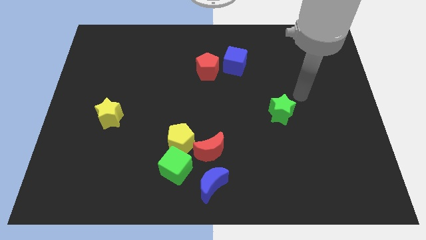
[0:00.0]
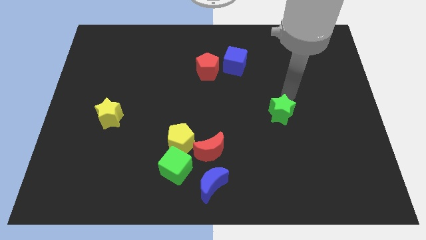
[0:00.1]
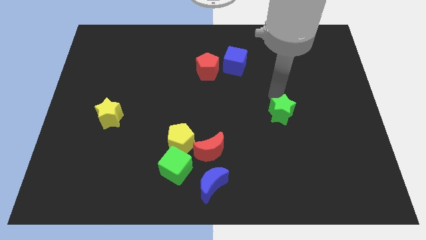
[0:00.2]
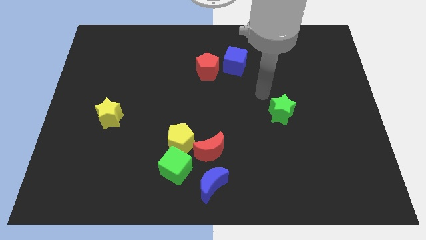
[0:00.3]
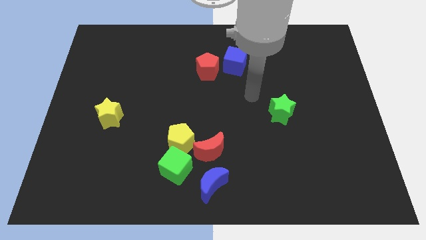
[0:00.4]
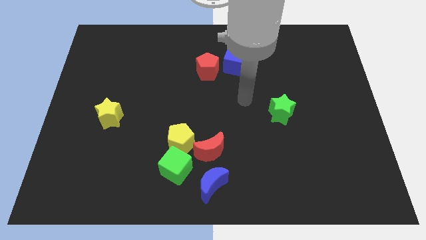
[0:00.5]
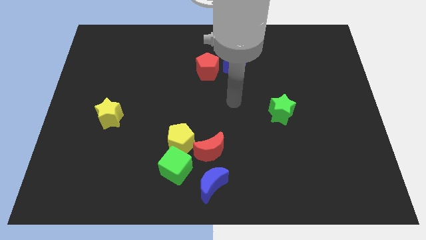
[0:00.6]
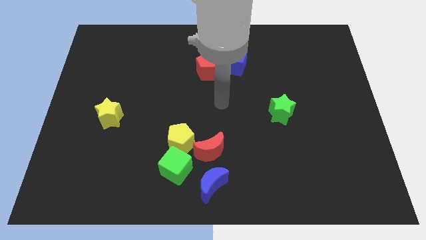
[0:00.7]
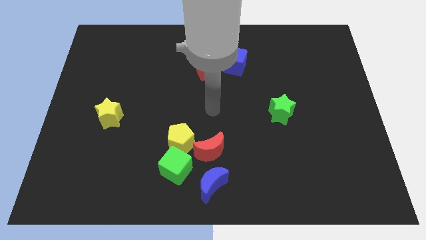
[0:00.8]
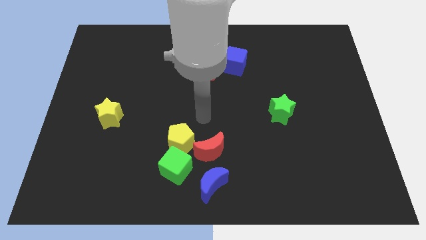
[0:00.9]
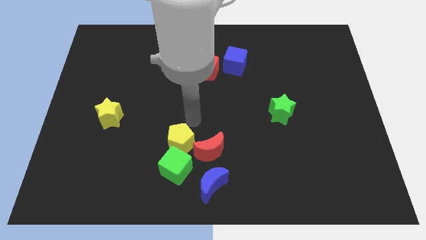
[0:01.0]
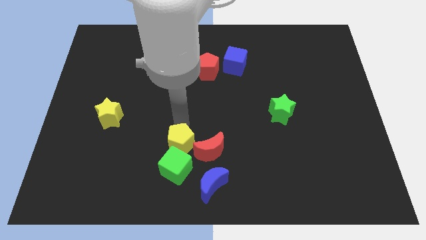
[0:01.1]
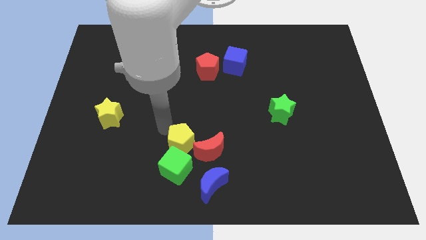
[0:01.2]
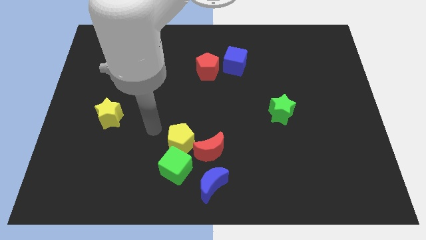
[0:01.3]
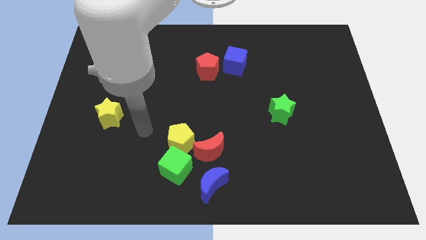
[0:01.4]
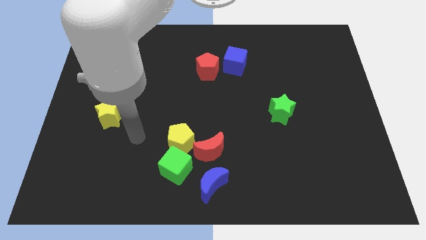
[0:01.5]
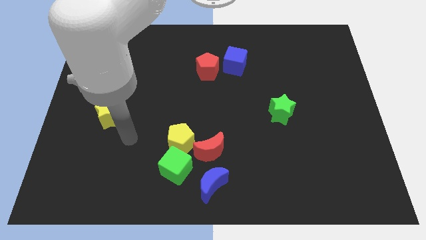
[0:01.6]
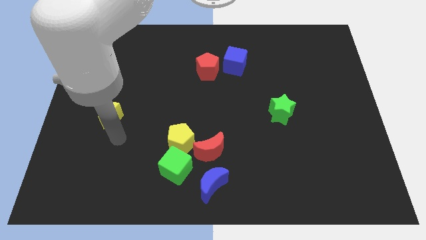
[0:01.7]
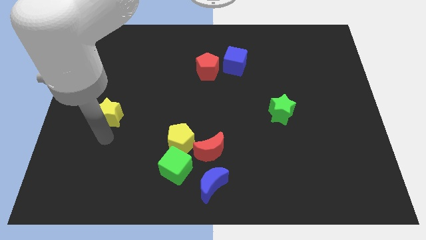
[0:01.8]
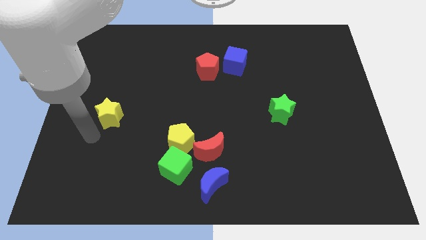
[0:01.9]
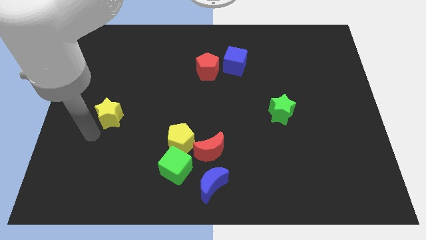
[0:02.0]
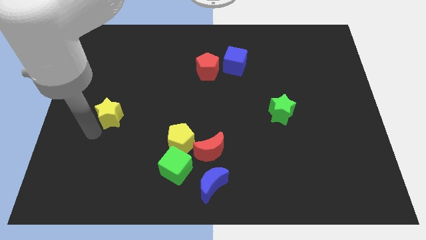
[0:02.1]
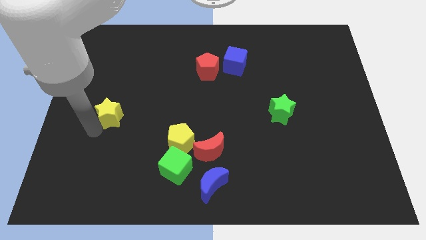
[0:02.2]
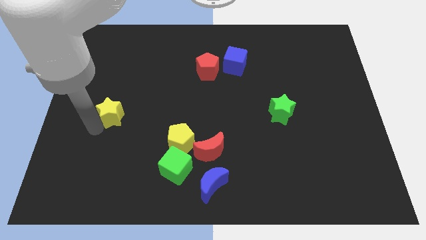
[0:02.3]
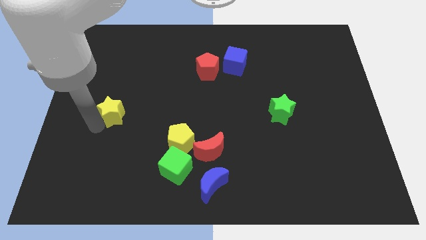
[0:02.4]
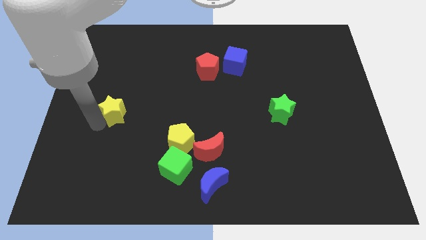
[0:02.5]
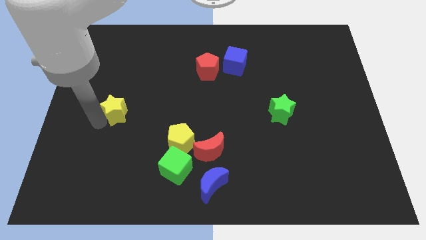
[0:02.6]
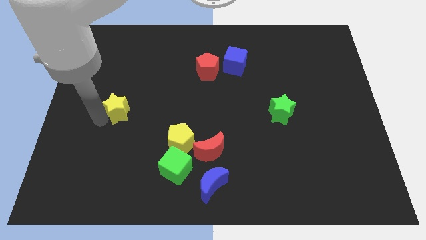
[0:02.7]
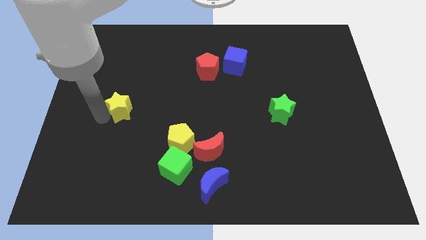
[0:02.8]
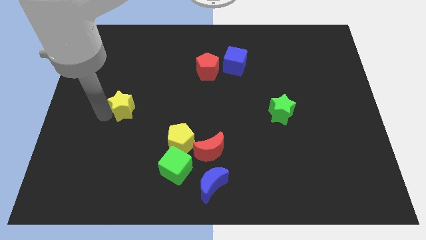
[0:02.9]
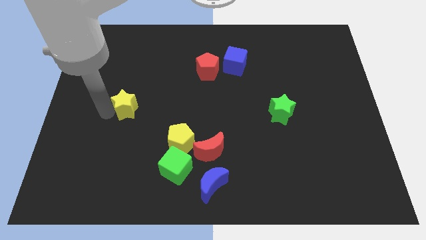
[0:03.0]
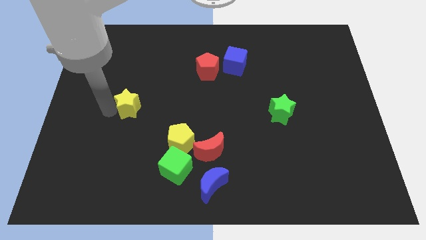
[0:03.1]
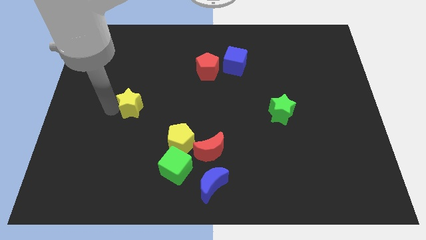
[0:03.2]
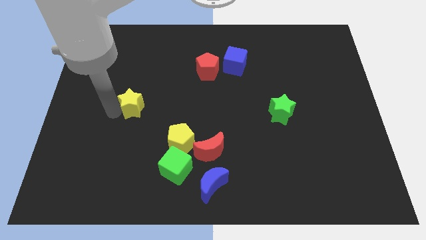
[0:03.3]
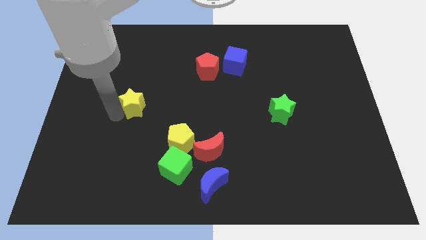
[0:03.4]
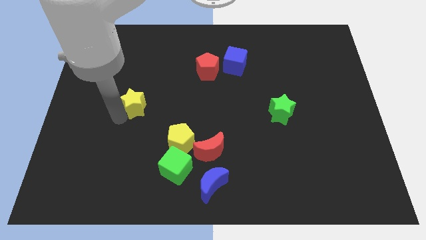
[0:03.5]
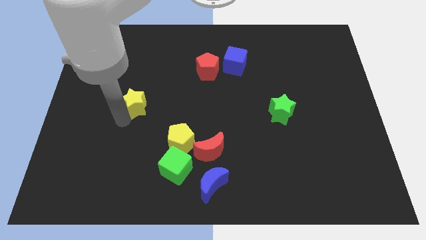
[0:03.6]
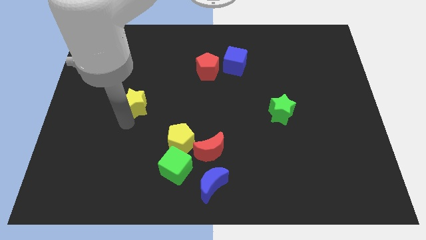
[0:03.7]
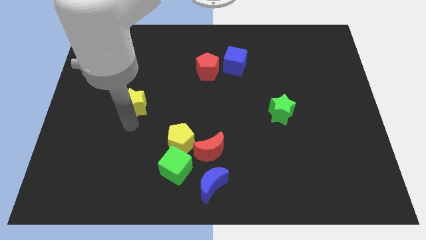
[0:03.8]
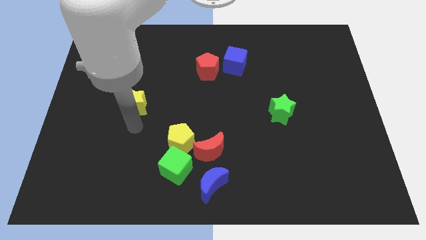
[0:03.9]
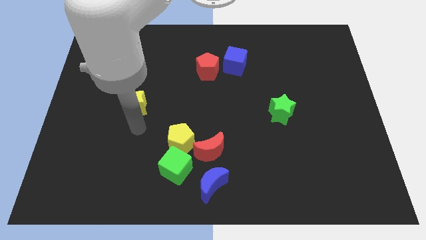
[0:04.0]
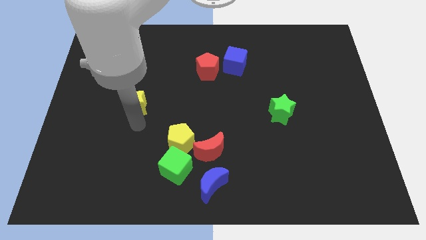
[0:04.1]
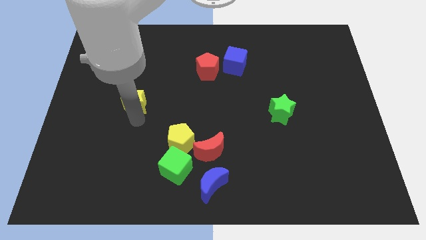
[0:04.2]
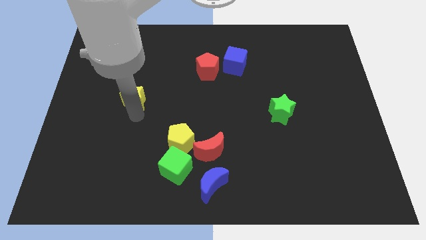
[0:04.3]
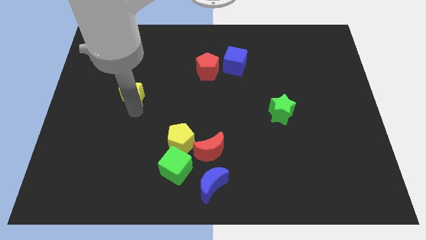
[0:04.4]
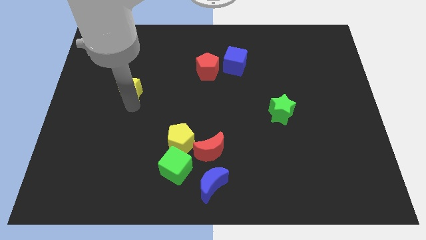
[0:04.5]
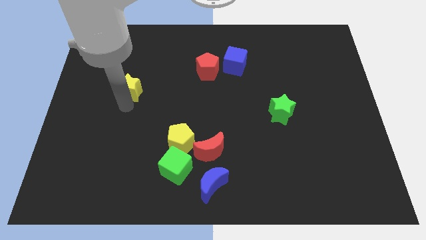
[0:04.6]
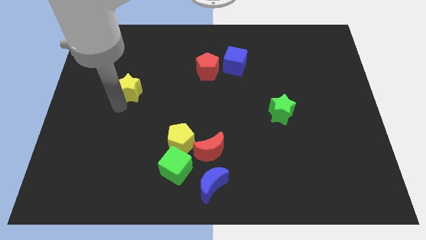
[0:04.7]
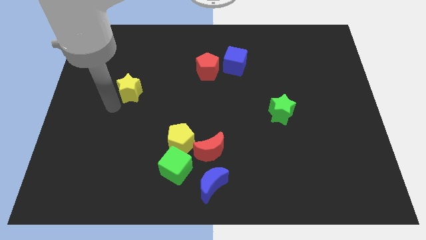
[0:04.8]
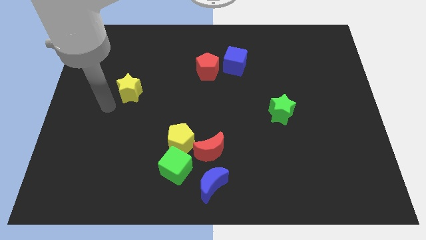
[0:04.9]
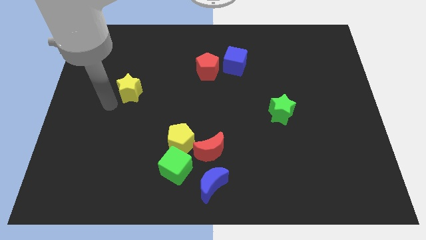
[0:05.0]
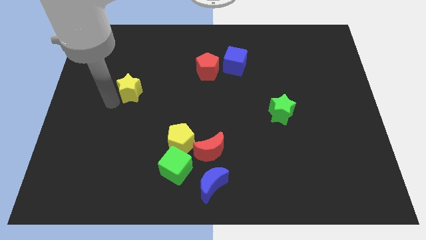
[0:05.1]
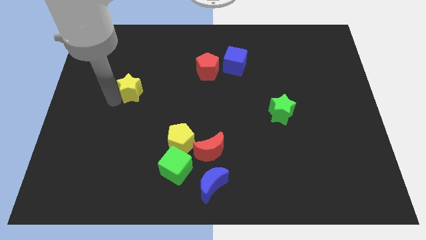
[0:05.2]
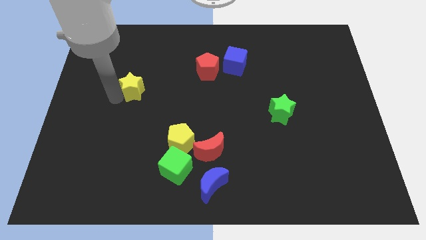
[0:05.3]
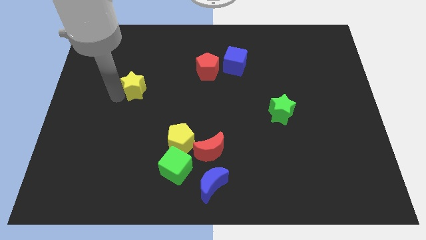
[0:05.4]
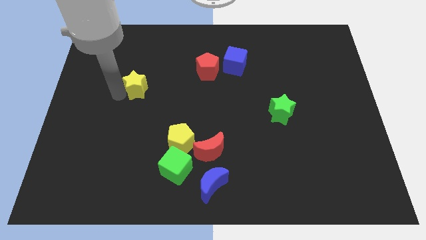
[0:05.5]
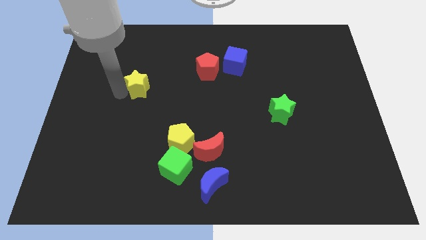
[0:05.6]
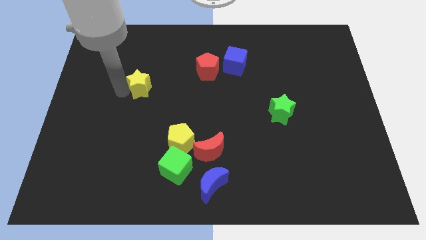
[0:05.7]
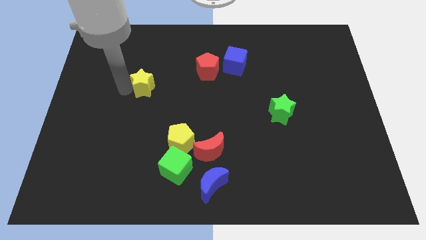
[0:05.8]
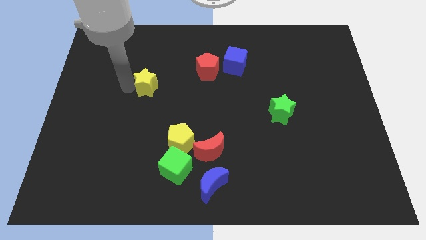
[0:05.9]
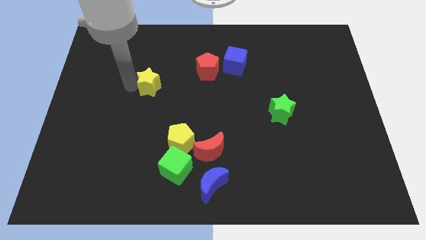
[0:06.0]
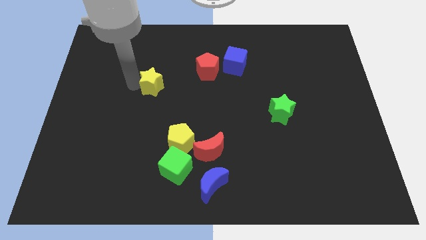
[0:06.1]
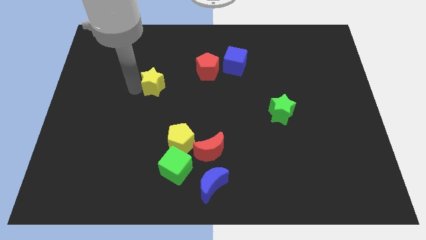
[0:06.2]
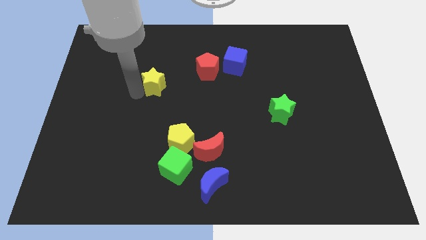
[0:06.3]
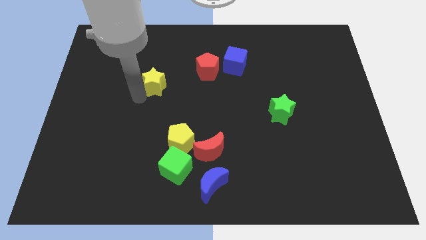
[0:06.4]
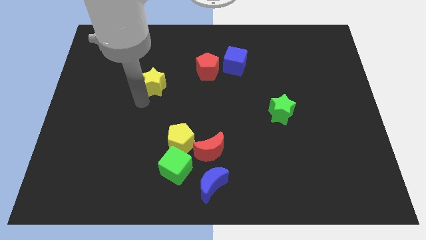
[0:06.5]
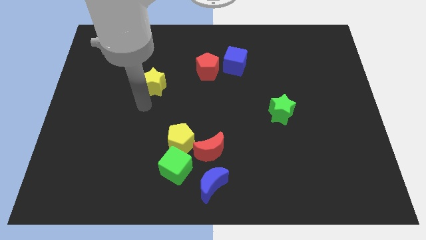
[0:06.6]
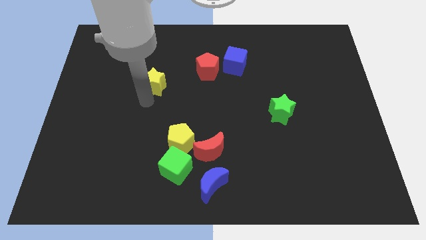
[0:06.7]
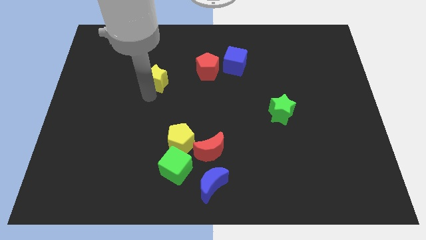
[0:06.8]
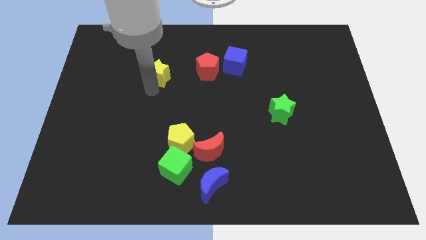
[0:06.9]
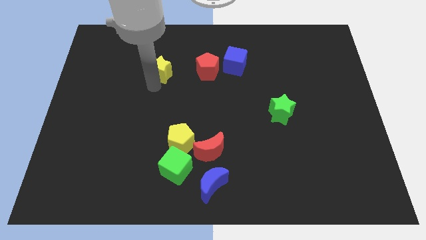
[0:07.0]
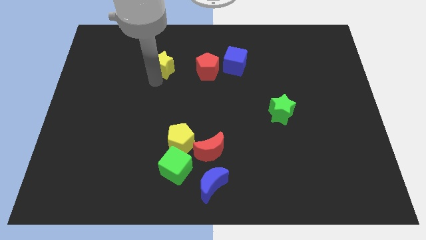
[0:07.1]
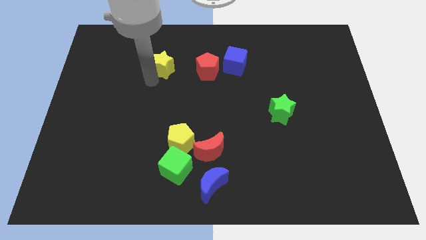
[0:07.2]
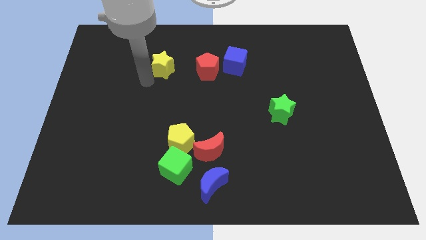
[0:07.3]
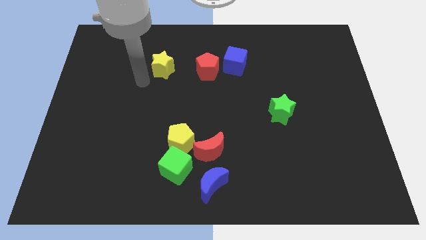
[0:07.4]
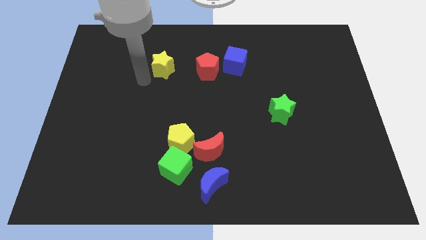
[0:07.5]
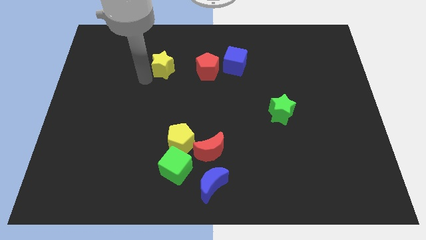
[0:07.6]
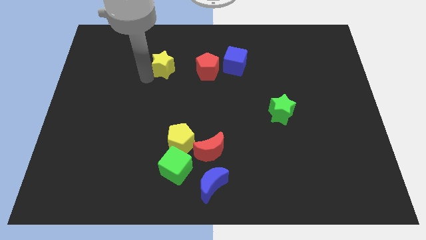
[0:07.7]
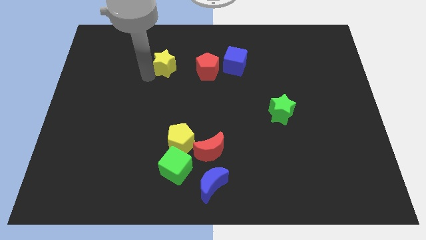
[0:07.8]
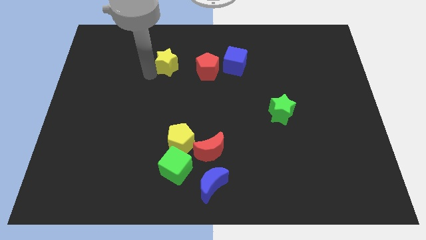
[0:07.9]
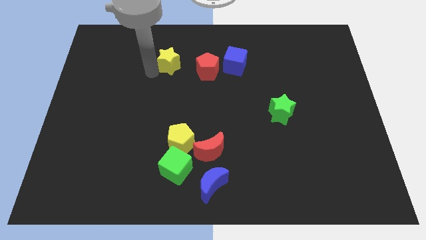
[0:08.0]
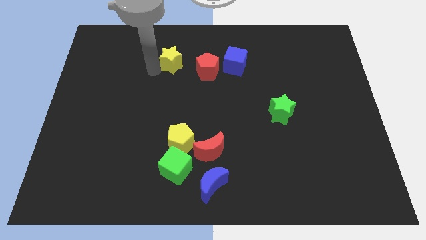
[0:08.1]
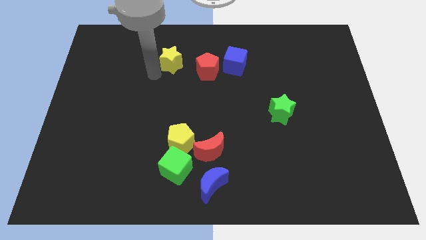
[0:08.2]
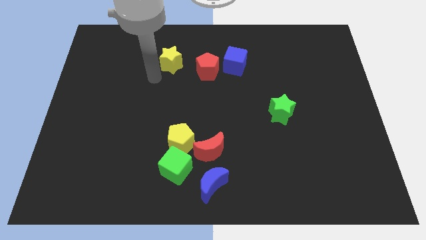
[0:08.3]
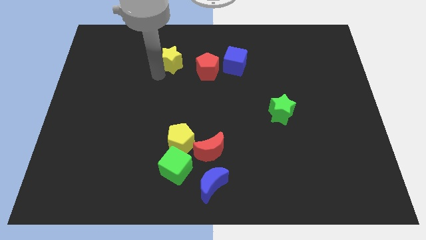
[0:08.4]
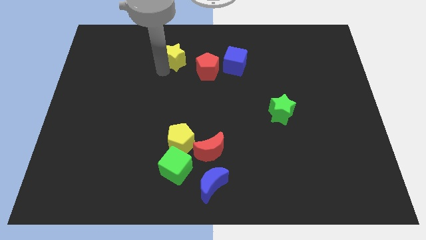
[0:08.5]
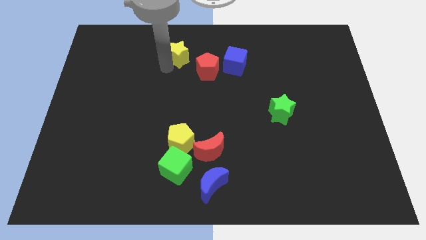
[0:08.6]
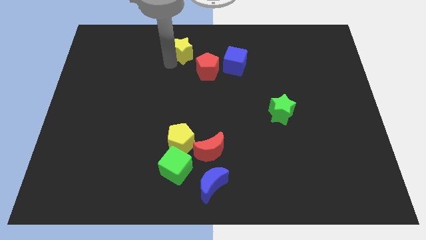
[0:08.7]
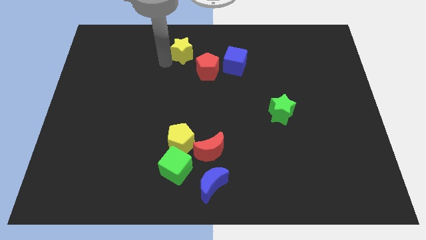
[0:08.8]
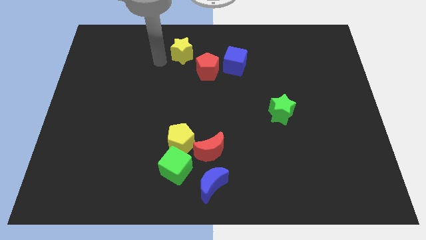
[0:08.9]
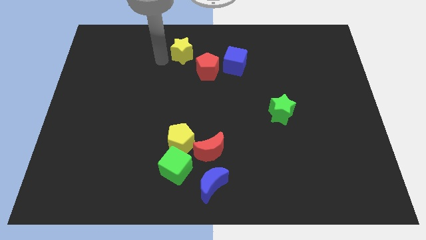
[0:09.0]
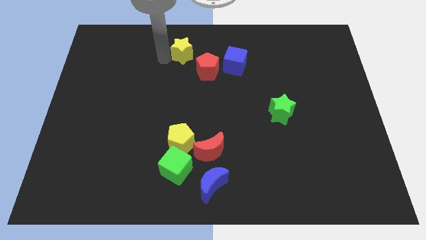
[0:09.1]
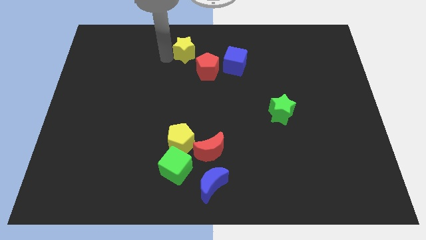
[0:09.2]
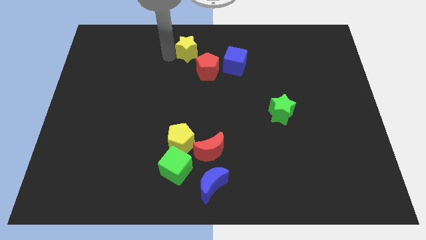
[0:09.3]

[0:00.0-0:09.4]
push the yellow star to the top
